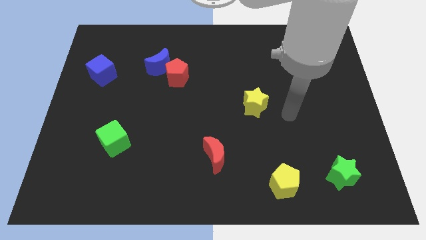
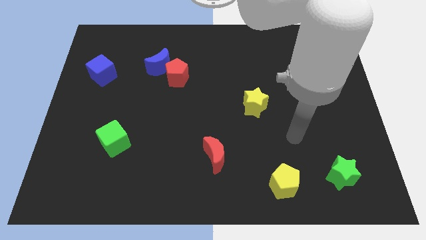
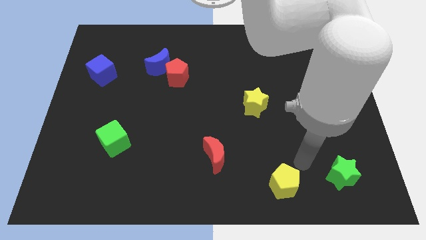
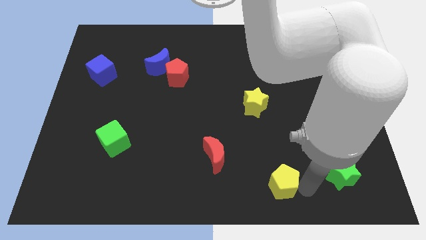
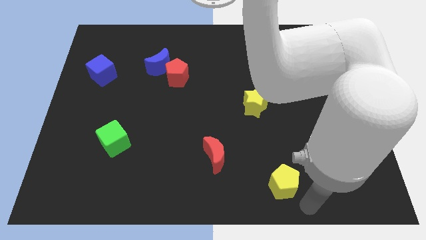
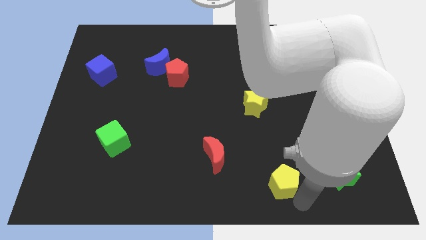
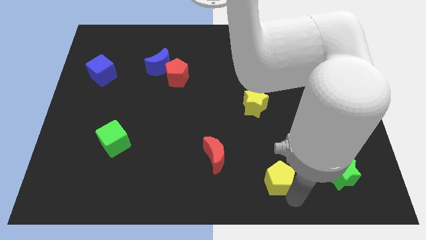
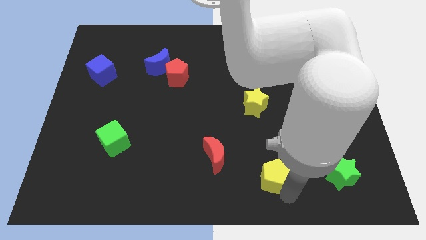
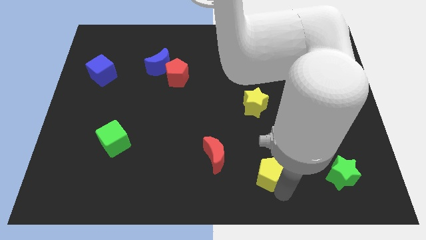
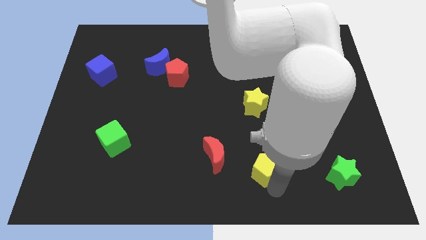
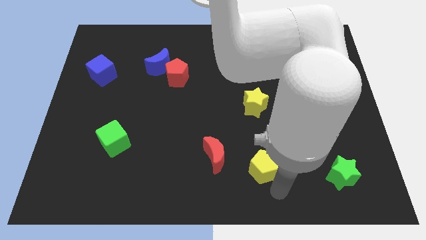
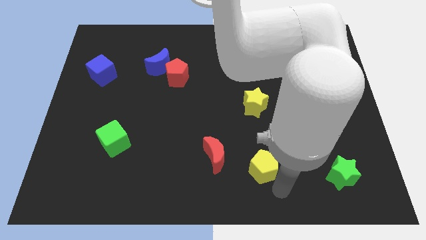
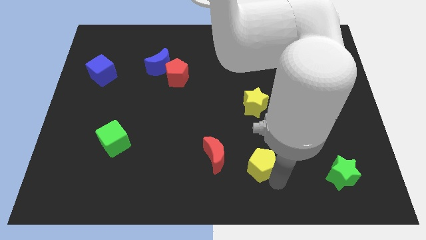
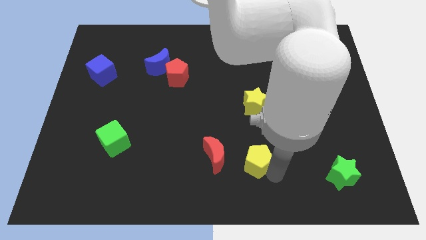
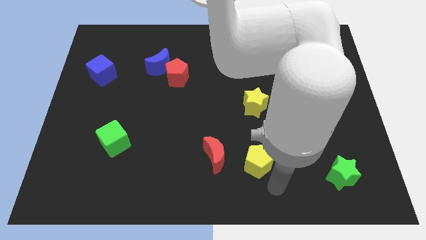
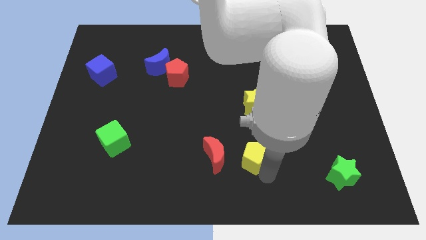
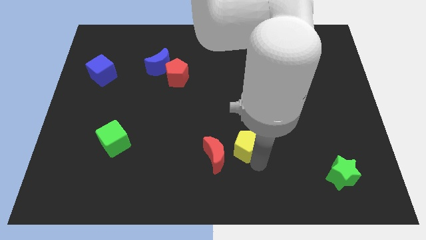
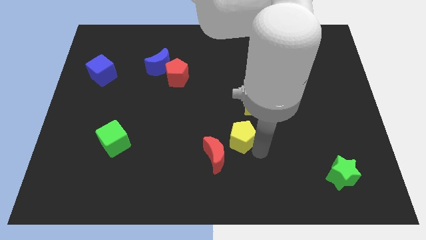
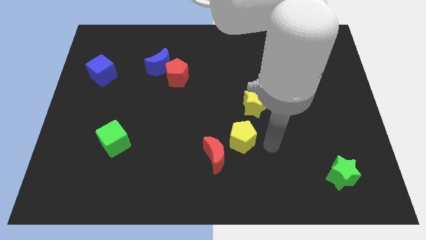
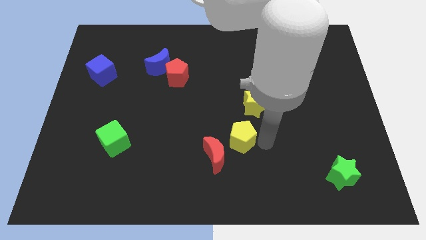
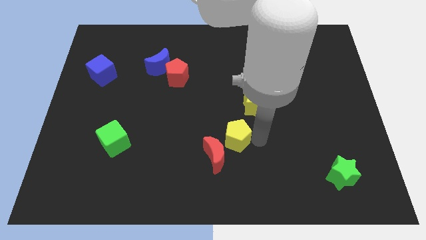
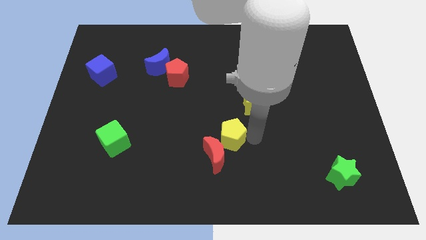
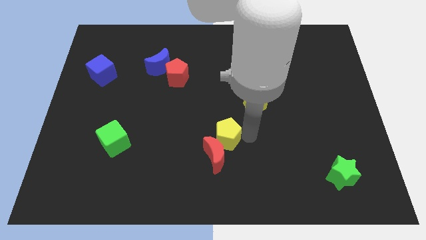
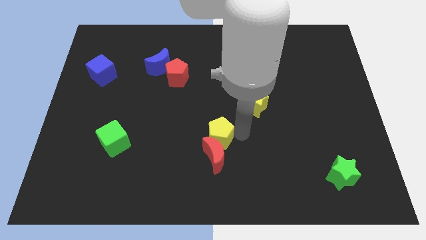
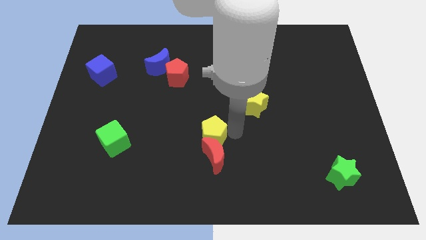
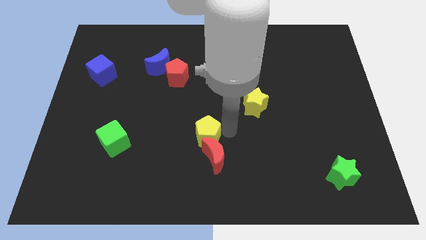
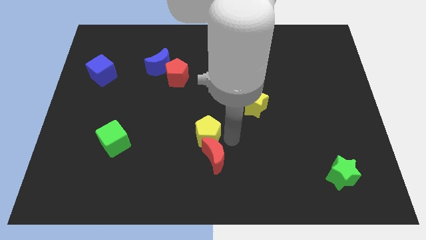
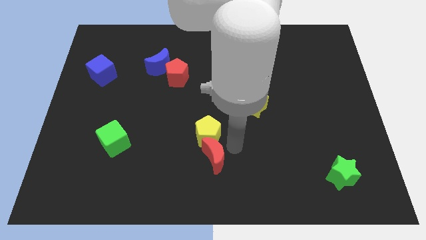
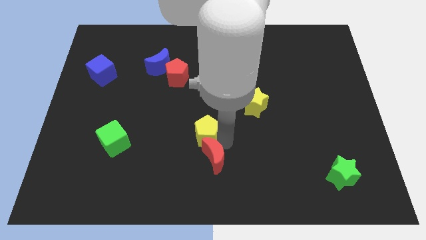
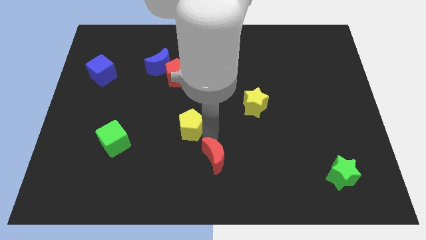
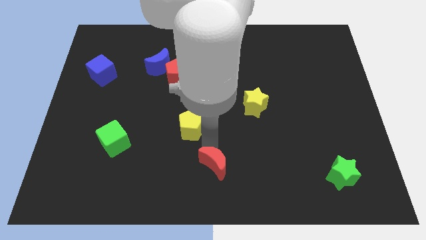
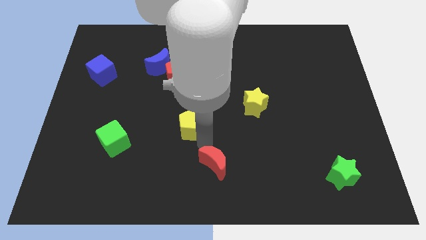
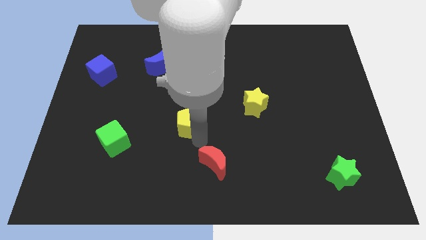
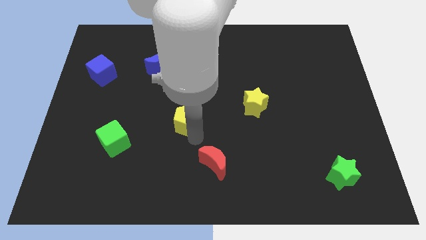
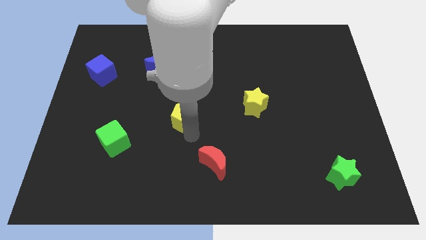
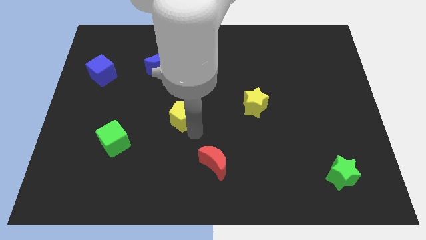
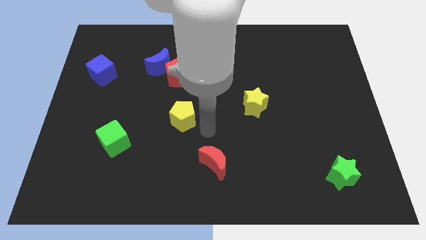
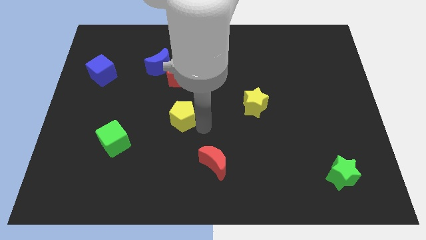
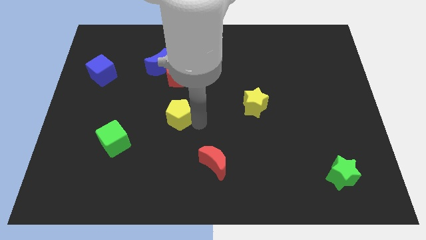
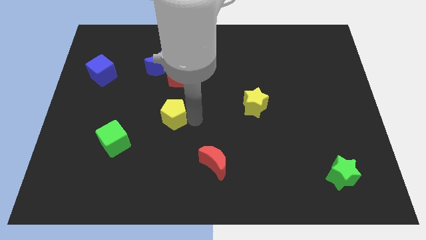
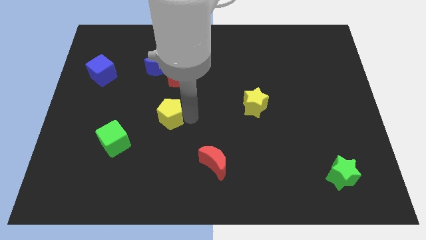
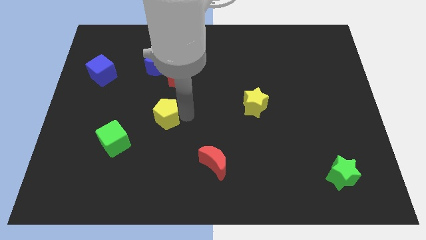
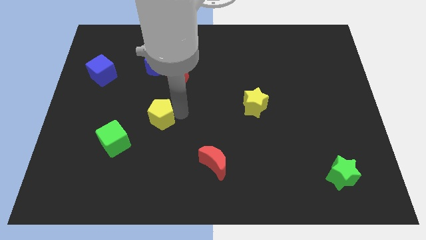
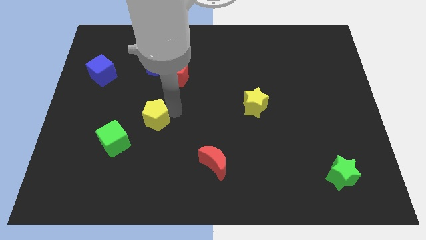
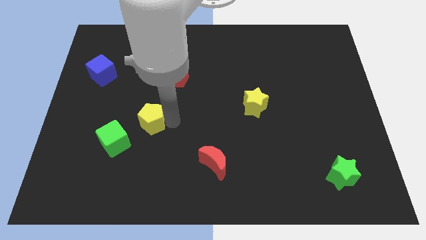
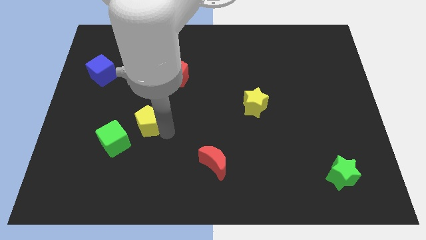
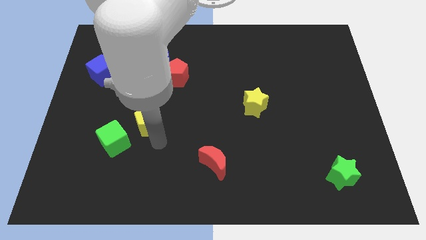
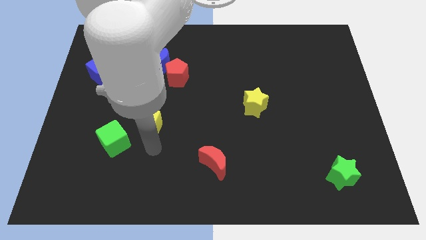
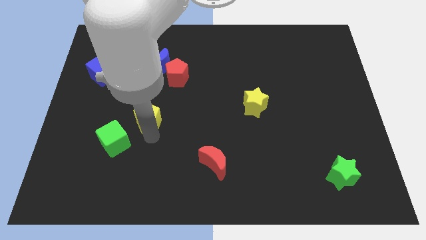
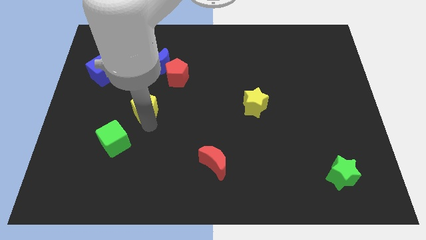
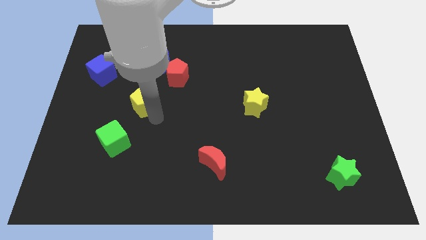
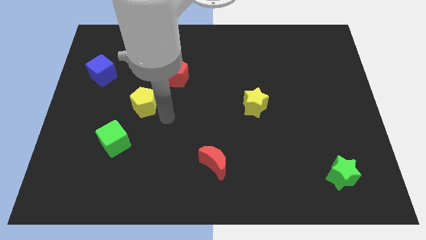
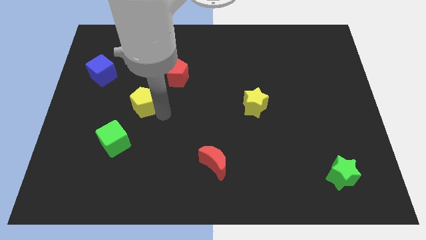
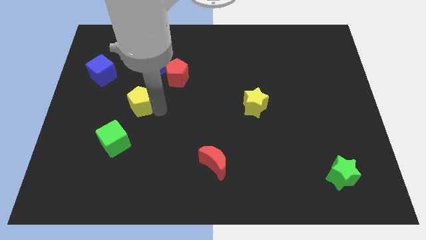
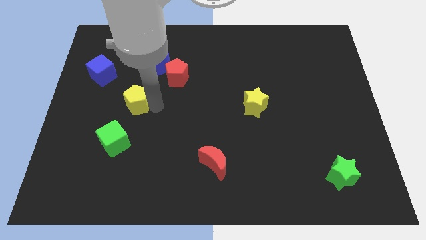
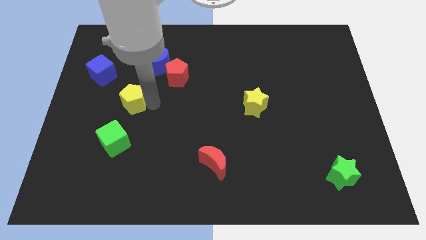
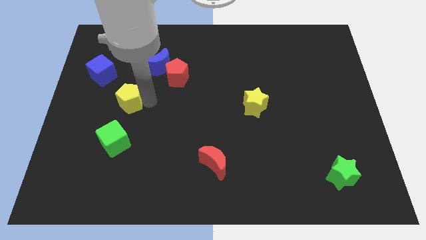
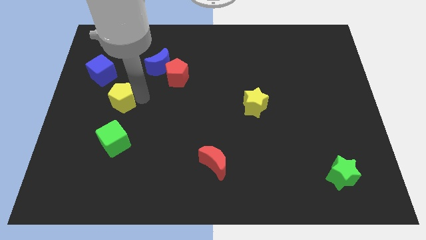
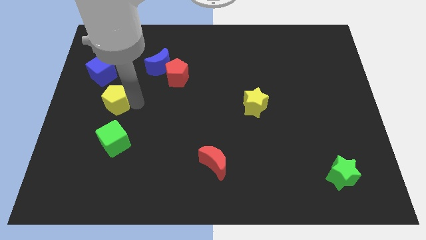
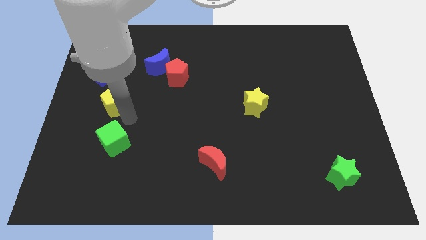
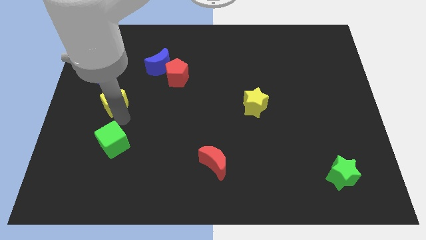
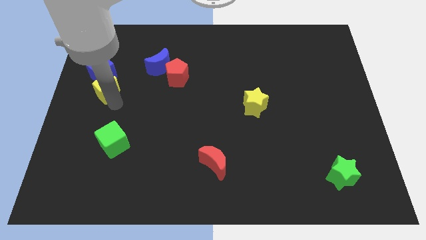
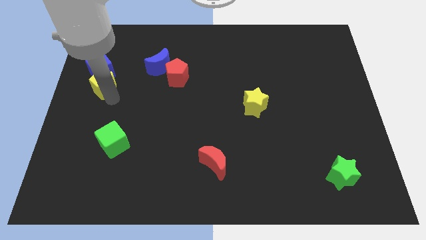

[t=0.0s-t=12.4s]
move the yellow pentagon towards the blue cube
